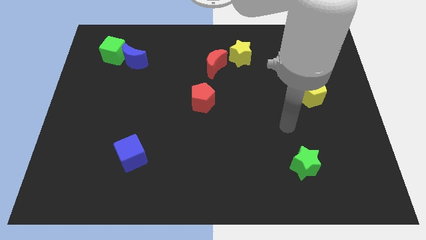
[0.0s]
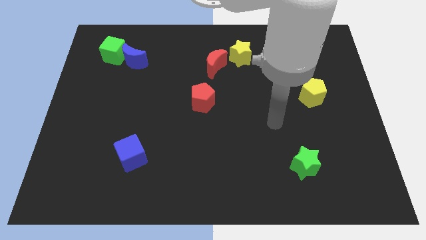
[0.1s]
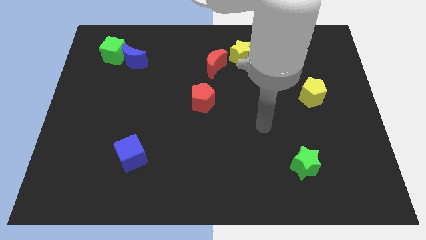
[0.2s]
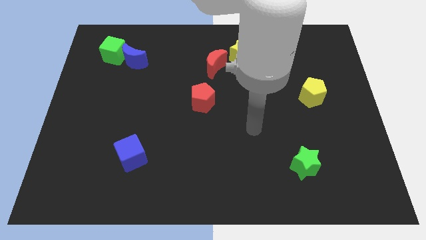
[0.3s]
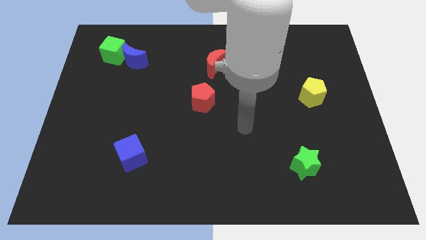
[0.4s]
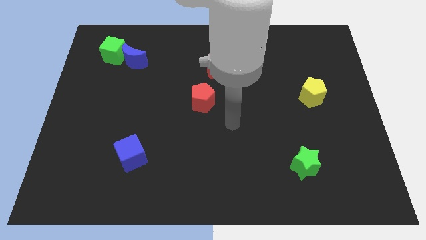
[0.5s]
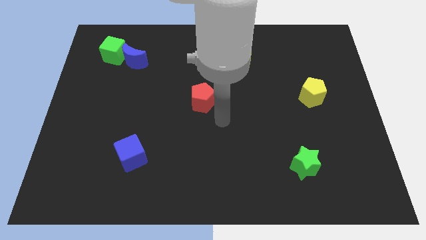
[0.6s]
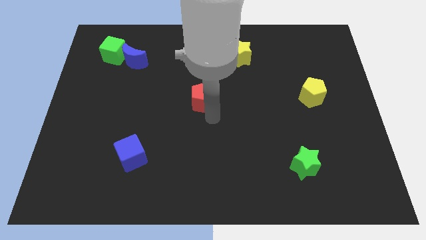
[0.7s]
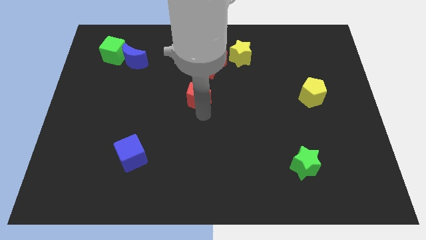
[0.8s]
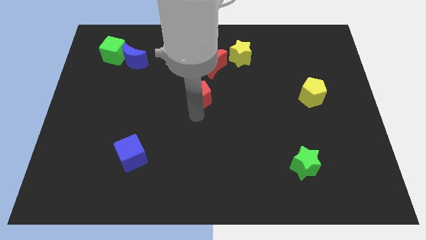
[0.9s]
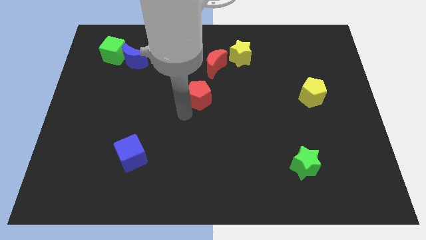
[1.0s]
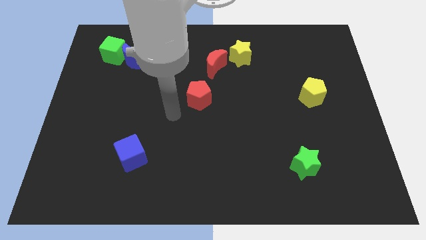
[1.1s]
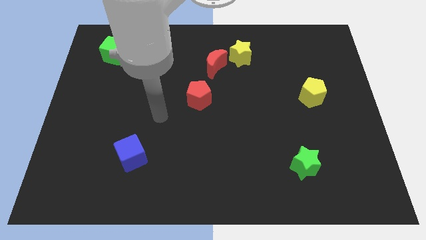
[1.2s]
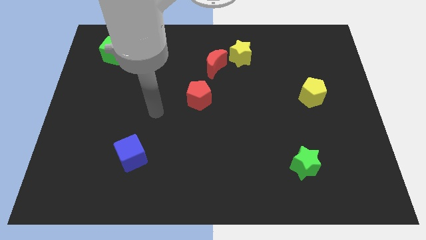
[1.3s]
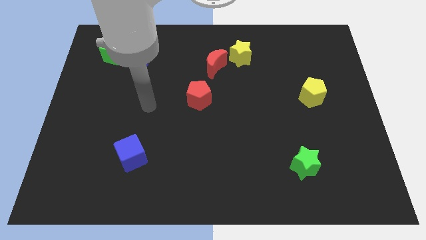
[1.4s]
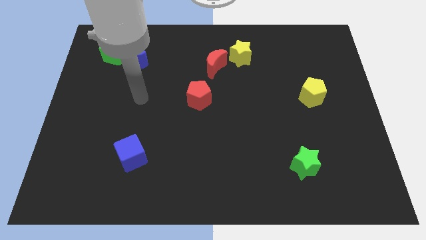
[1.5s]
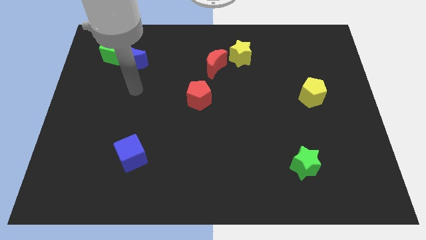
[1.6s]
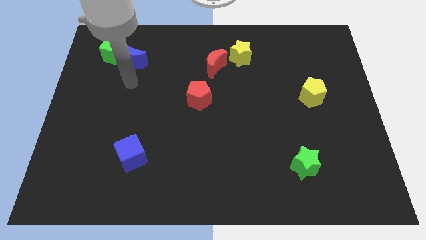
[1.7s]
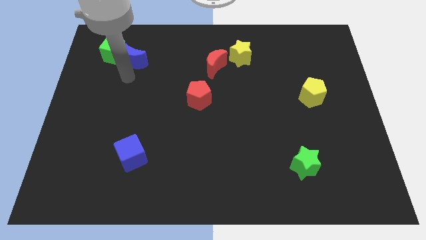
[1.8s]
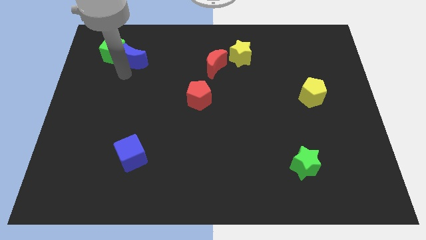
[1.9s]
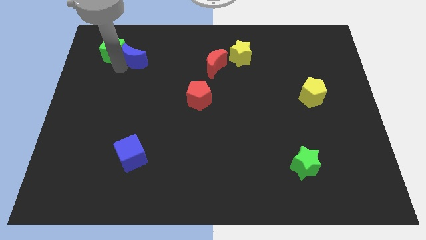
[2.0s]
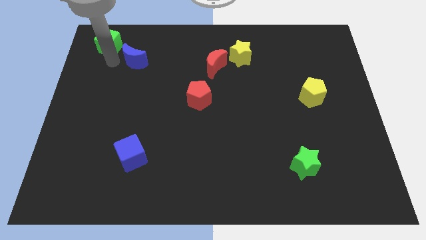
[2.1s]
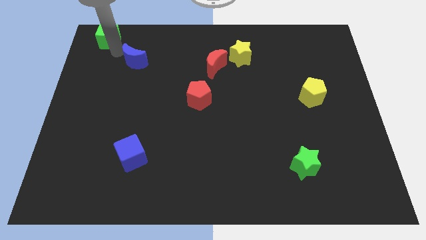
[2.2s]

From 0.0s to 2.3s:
move the blue moon away from the green cube

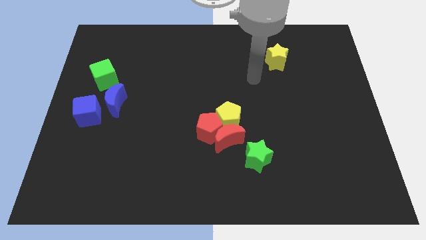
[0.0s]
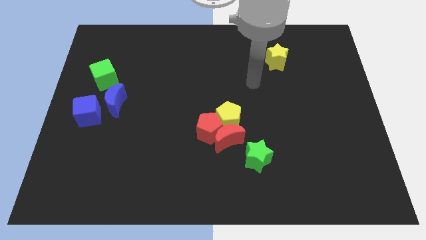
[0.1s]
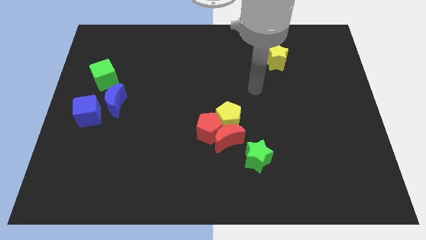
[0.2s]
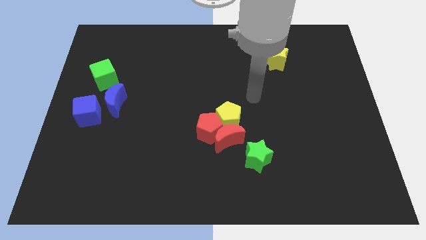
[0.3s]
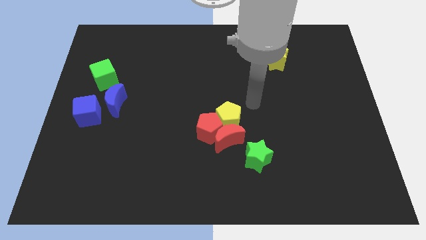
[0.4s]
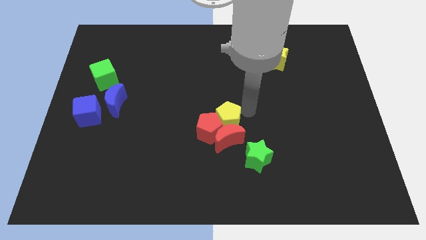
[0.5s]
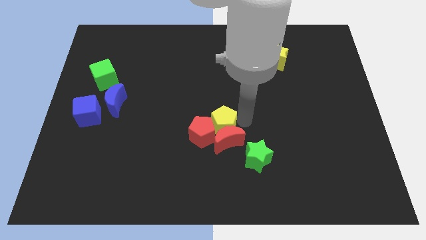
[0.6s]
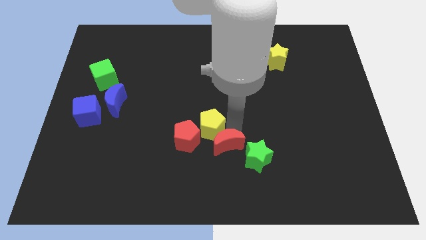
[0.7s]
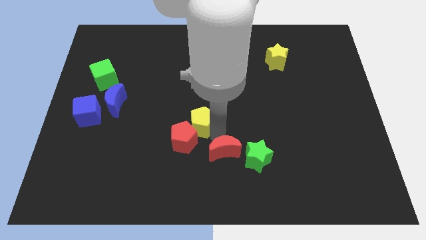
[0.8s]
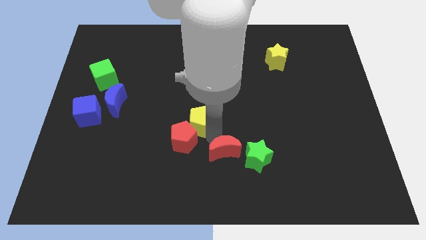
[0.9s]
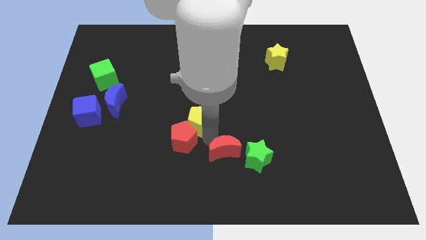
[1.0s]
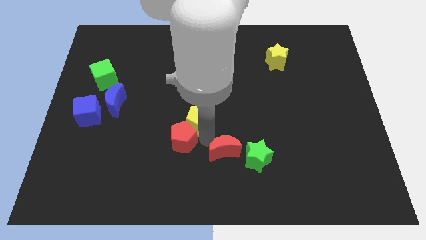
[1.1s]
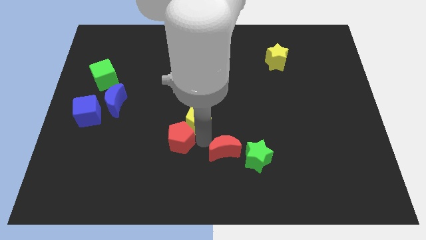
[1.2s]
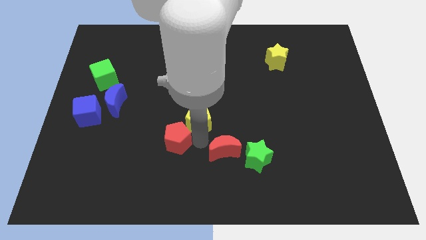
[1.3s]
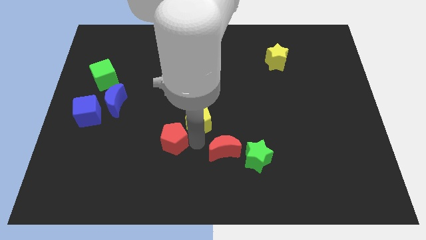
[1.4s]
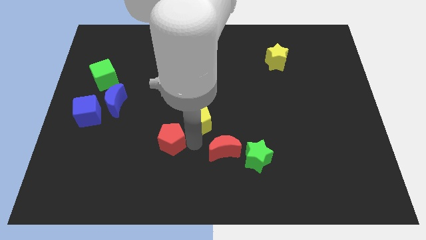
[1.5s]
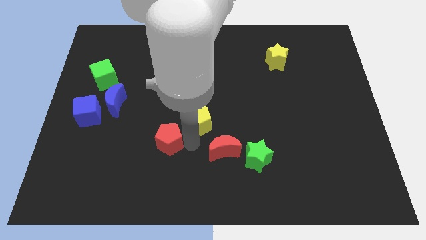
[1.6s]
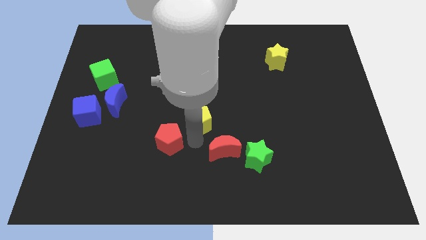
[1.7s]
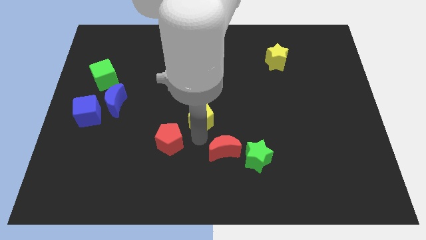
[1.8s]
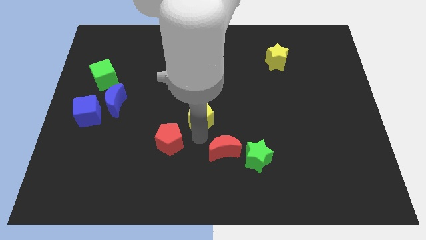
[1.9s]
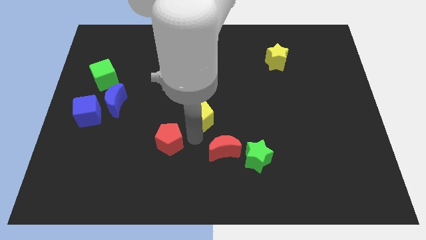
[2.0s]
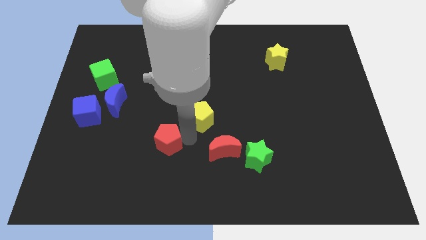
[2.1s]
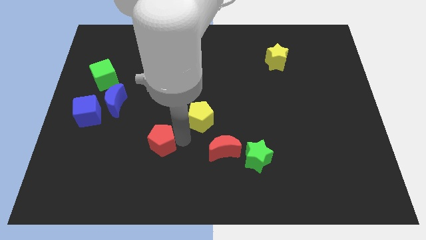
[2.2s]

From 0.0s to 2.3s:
pull the red pentagon apart from the red moon and yellow pentagon

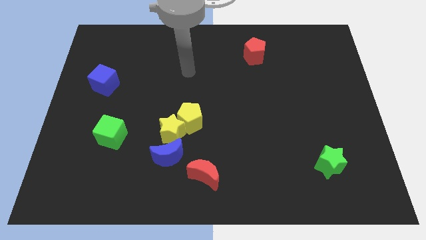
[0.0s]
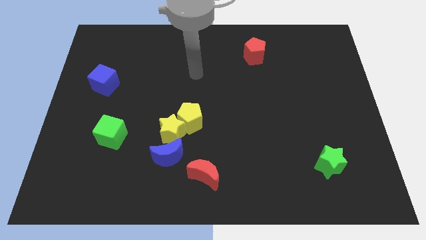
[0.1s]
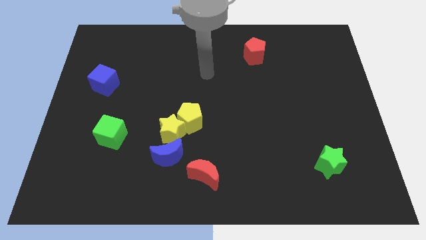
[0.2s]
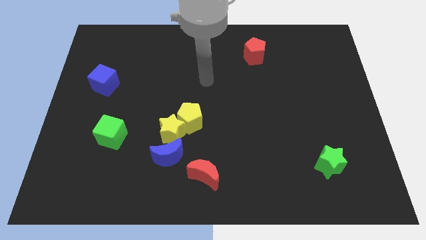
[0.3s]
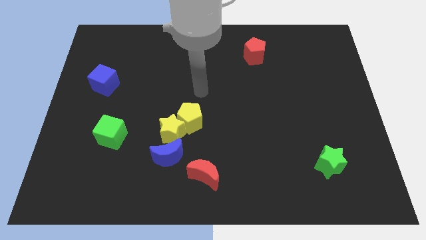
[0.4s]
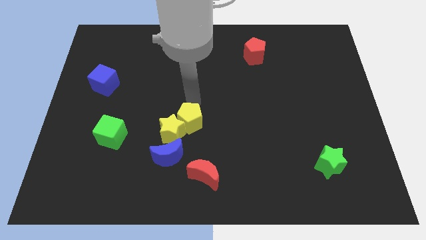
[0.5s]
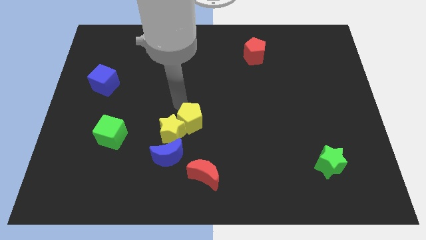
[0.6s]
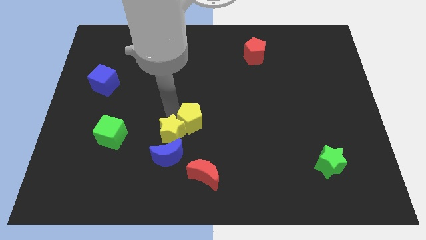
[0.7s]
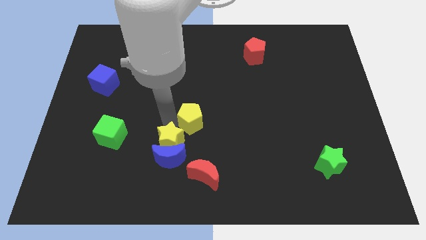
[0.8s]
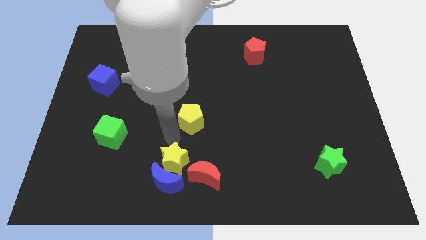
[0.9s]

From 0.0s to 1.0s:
separate the yellow pentagon from the yellow star

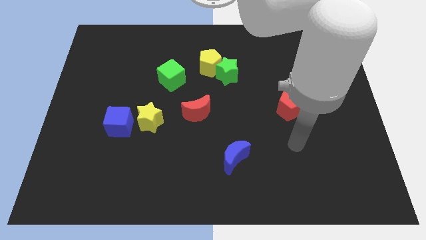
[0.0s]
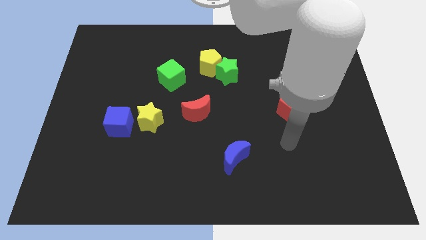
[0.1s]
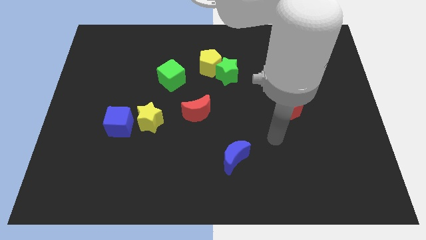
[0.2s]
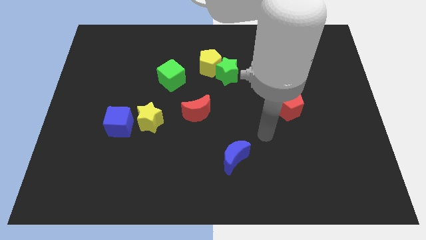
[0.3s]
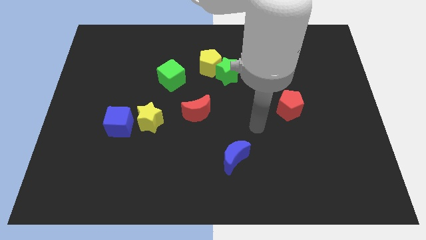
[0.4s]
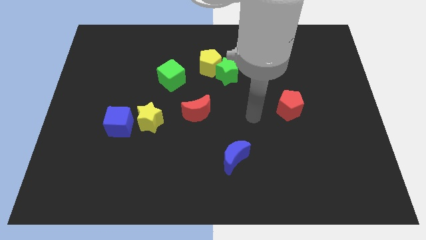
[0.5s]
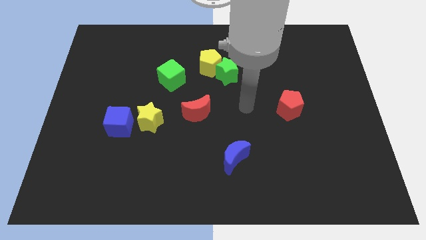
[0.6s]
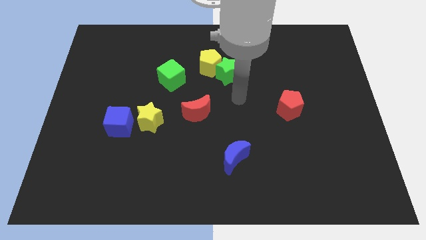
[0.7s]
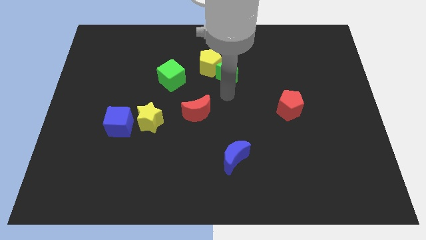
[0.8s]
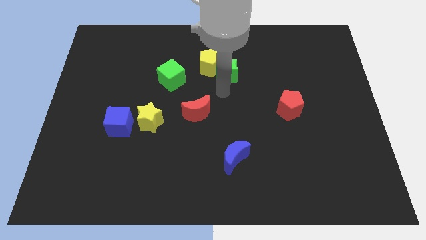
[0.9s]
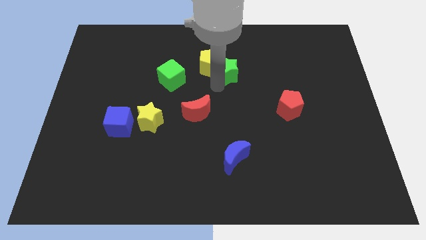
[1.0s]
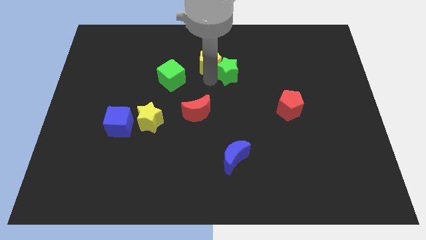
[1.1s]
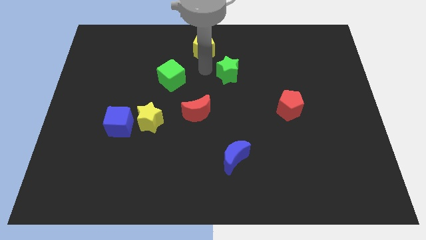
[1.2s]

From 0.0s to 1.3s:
separate the green star from the yellow pentagon

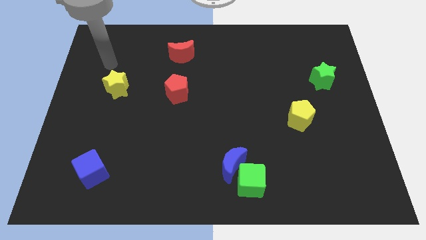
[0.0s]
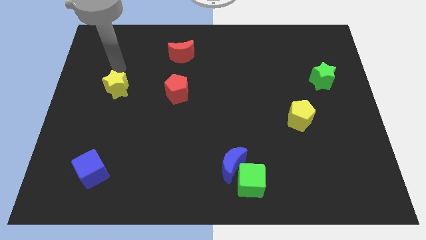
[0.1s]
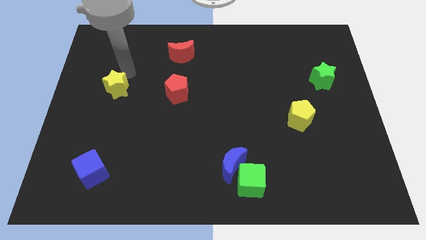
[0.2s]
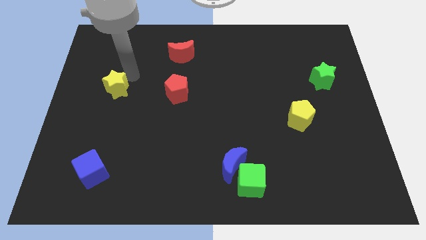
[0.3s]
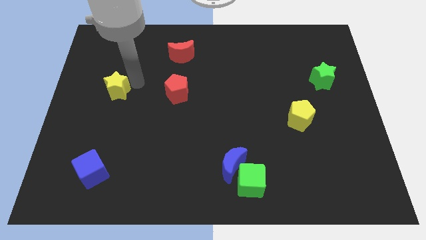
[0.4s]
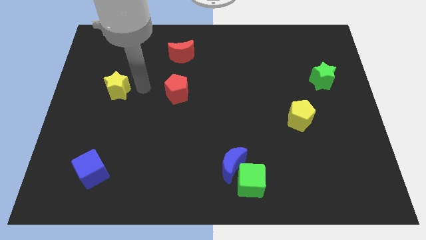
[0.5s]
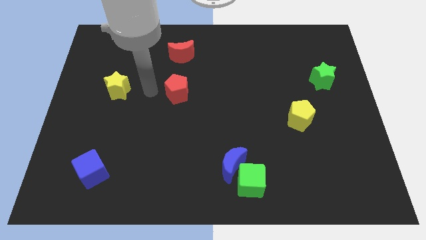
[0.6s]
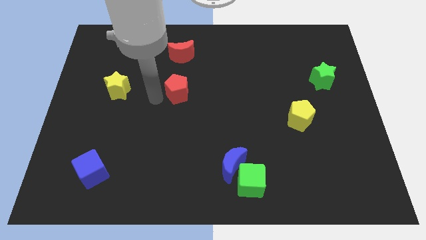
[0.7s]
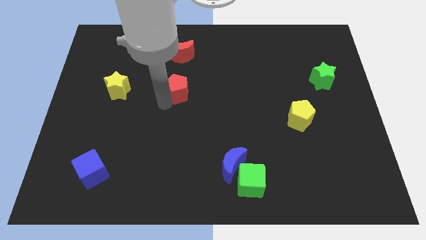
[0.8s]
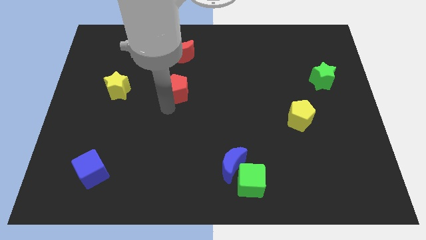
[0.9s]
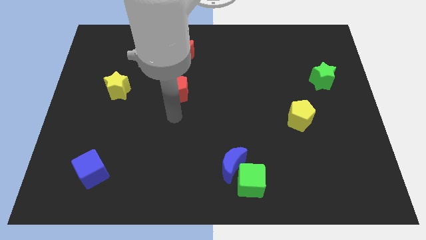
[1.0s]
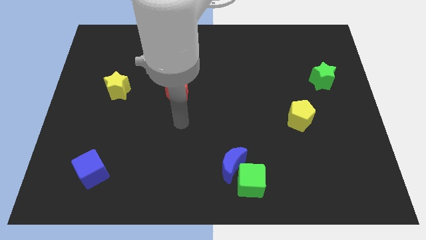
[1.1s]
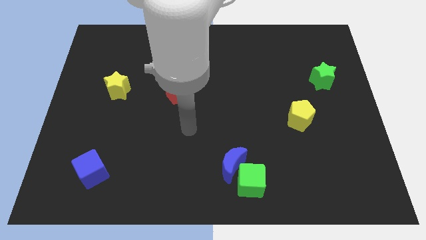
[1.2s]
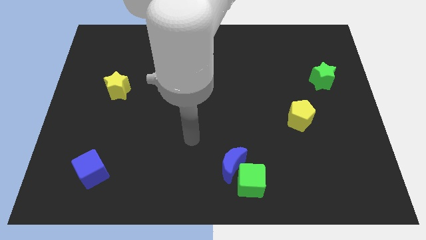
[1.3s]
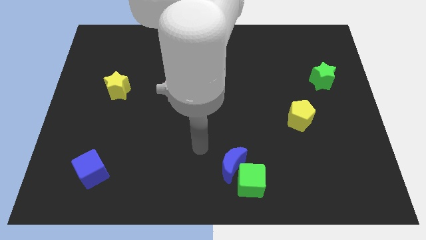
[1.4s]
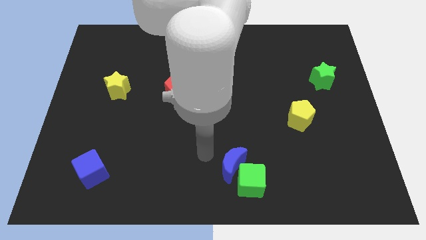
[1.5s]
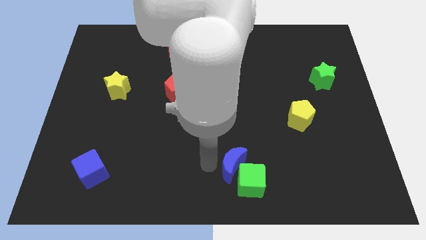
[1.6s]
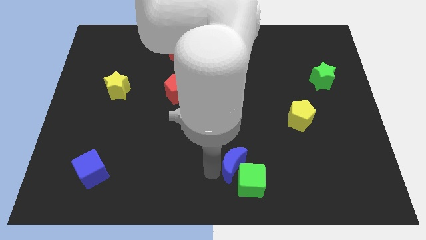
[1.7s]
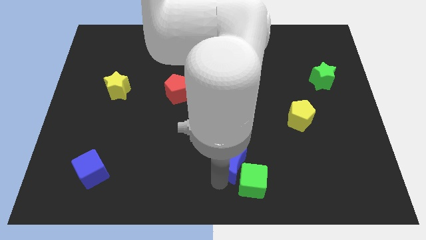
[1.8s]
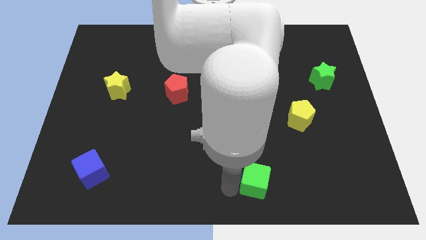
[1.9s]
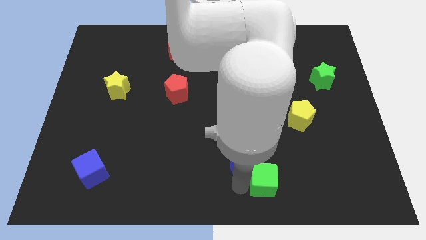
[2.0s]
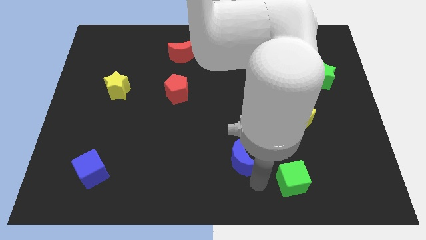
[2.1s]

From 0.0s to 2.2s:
separate the blue moon from the green cube

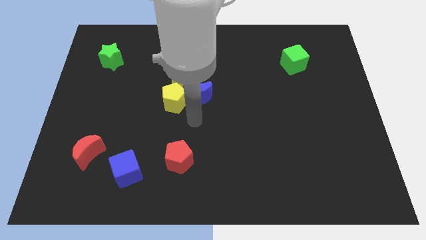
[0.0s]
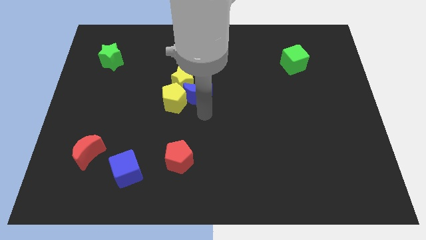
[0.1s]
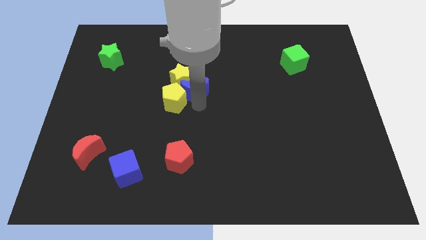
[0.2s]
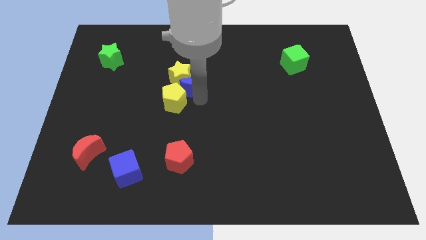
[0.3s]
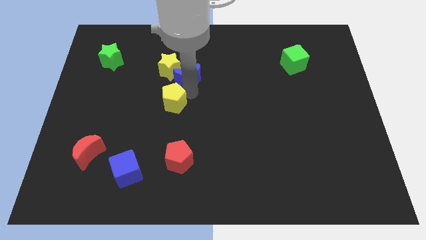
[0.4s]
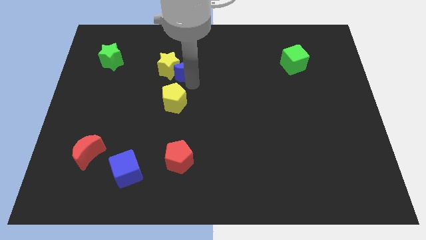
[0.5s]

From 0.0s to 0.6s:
move the yellow pentagon away from the yellow star and blue moon
